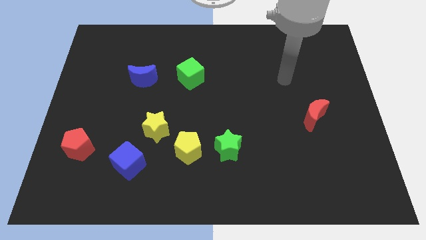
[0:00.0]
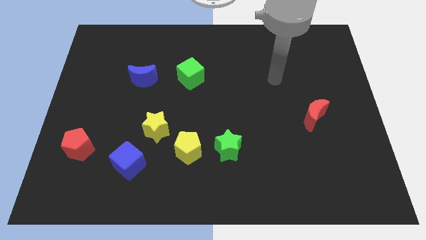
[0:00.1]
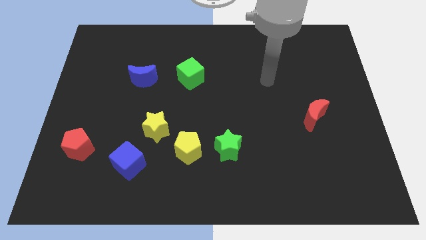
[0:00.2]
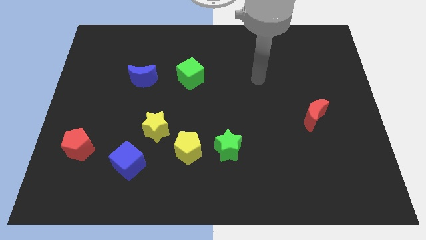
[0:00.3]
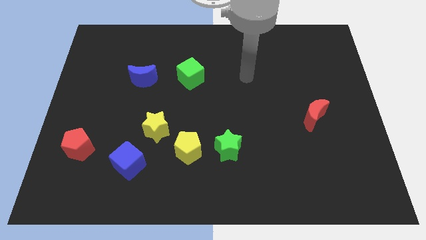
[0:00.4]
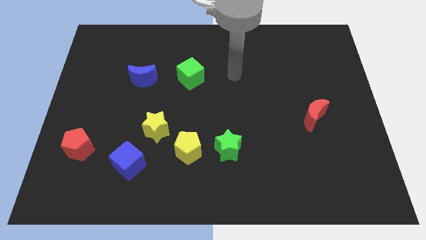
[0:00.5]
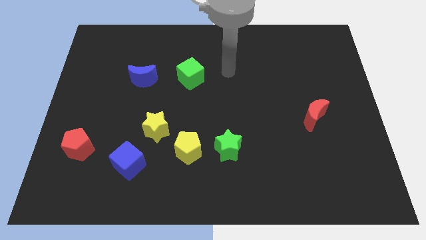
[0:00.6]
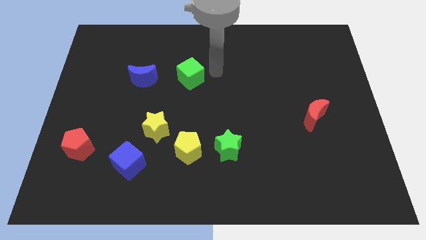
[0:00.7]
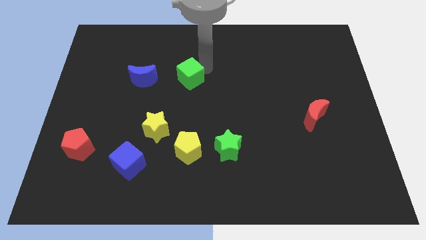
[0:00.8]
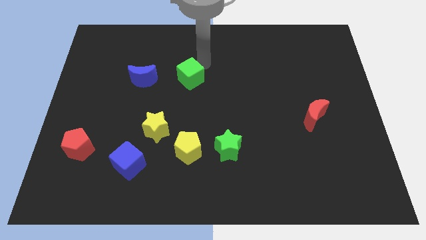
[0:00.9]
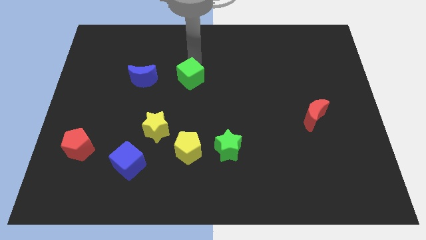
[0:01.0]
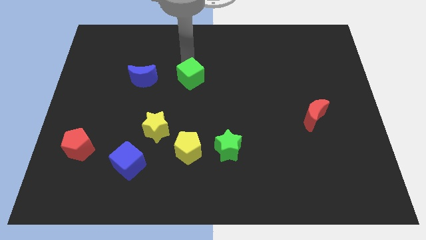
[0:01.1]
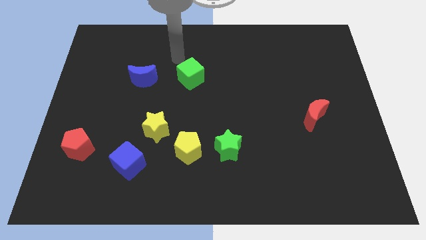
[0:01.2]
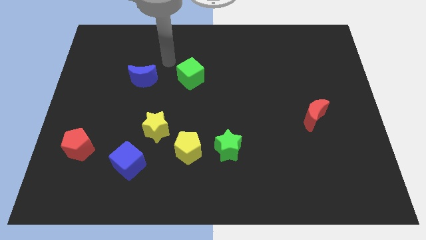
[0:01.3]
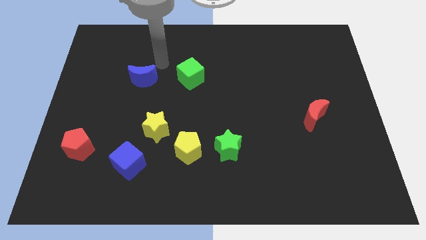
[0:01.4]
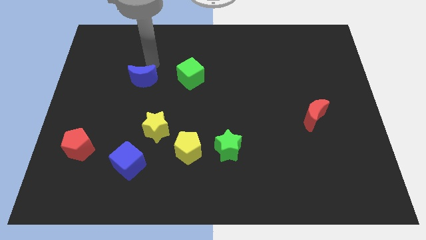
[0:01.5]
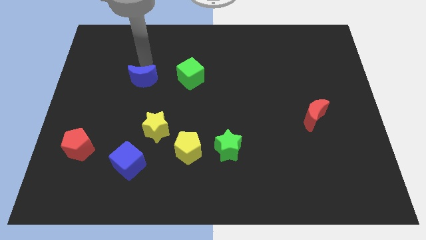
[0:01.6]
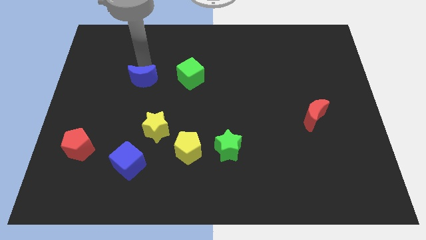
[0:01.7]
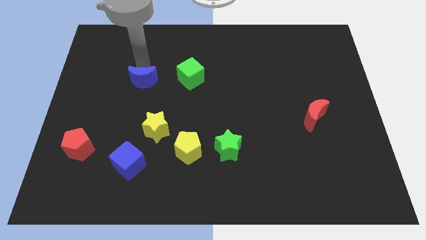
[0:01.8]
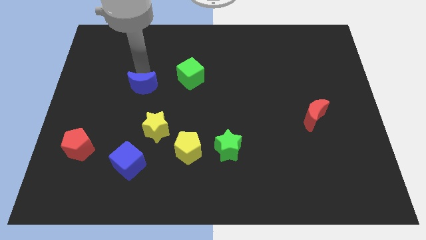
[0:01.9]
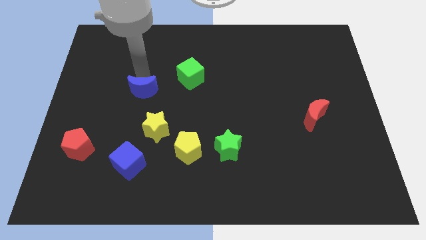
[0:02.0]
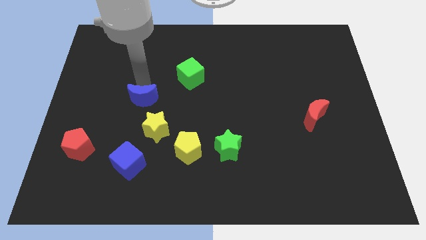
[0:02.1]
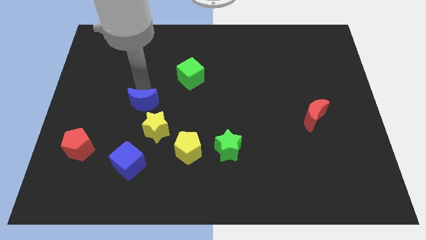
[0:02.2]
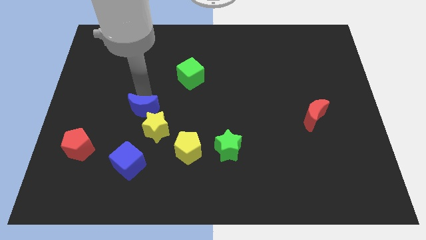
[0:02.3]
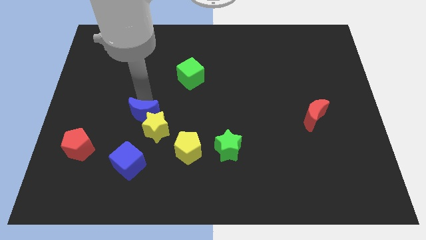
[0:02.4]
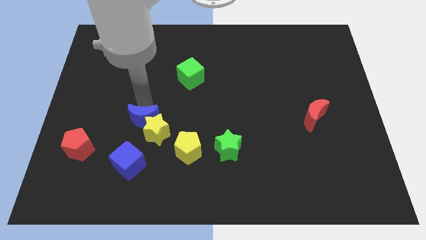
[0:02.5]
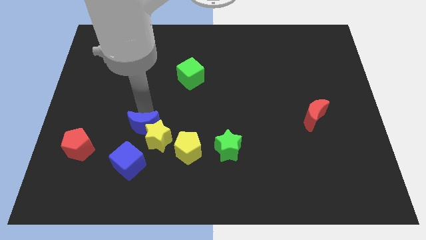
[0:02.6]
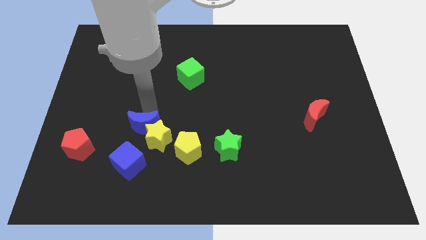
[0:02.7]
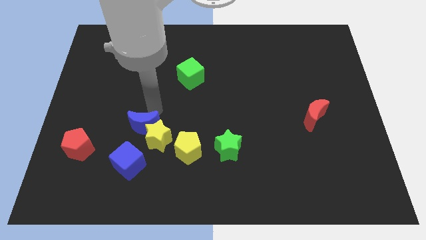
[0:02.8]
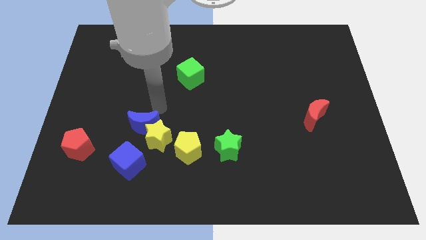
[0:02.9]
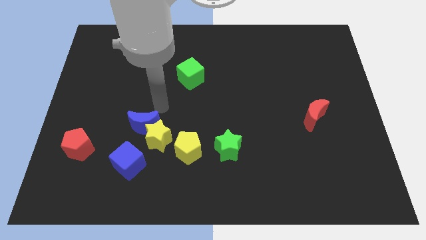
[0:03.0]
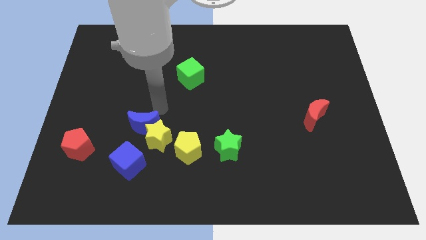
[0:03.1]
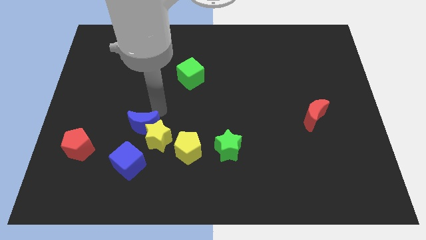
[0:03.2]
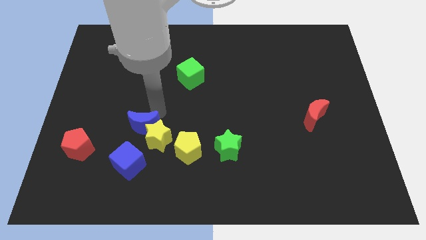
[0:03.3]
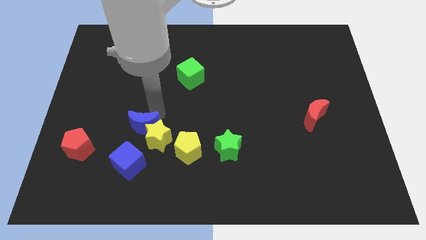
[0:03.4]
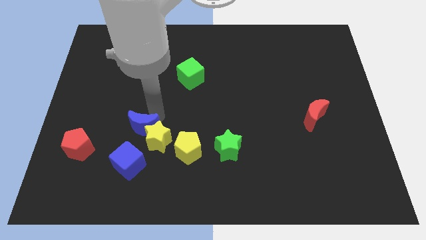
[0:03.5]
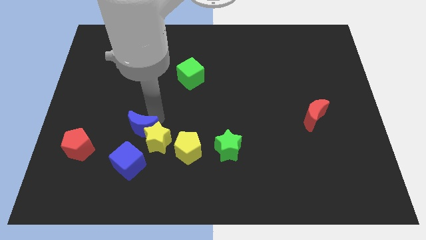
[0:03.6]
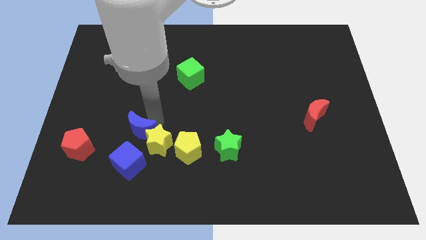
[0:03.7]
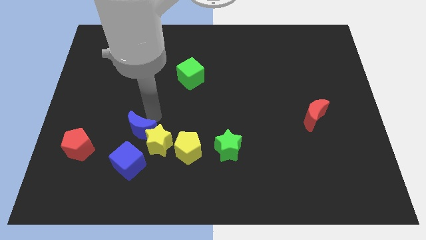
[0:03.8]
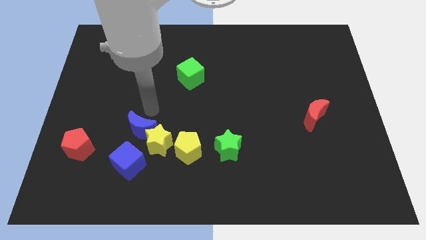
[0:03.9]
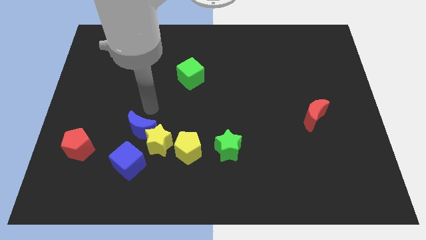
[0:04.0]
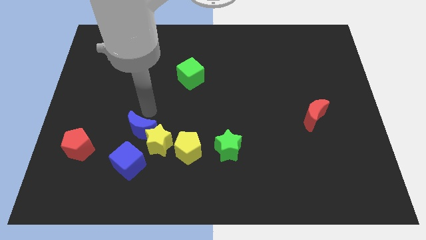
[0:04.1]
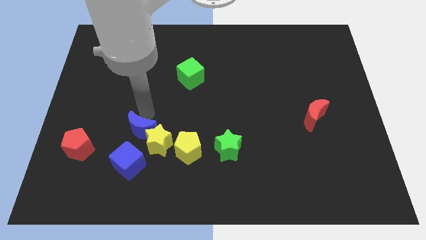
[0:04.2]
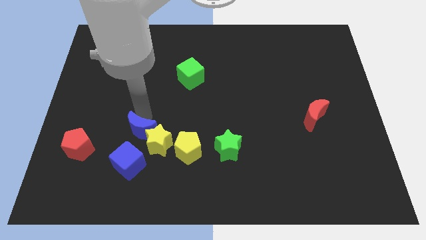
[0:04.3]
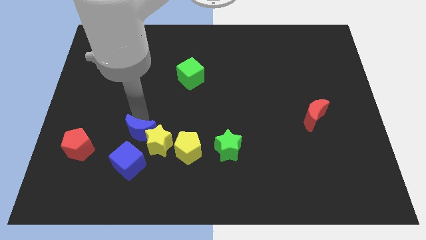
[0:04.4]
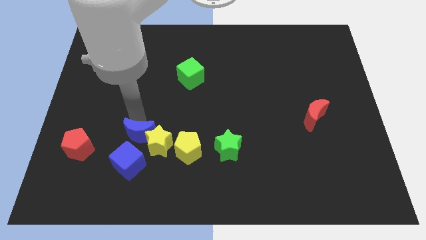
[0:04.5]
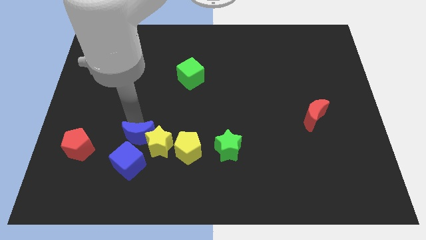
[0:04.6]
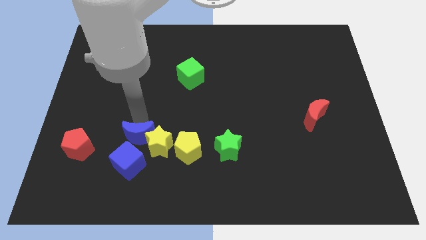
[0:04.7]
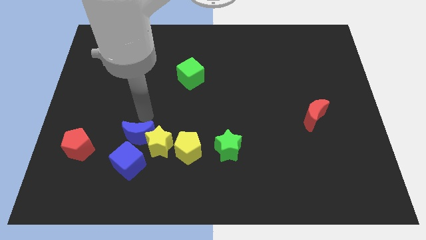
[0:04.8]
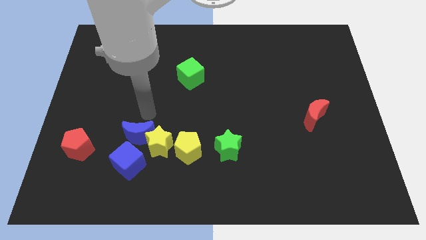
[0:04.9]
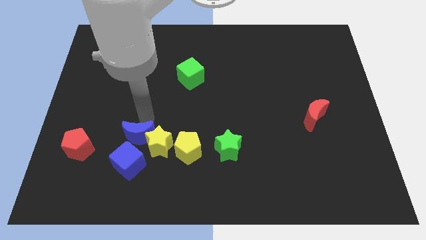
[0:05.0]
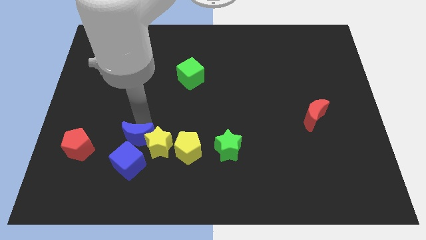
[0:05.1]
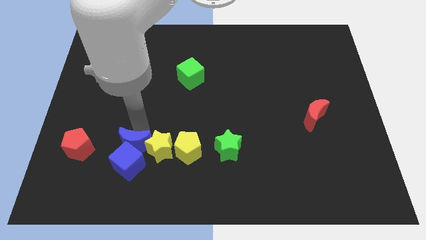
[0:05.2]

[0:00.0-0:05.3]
slide the blue moon close to the blue cube

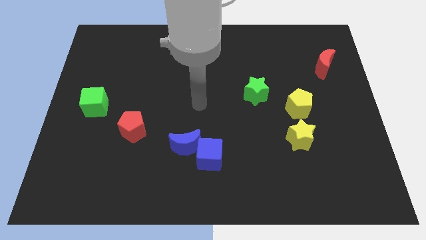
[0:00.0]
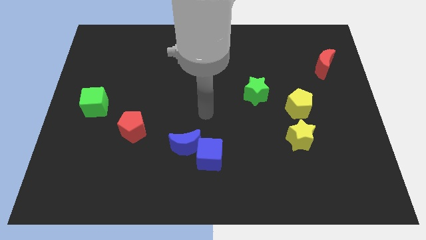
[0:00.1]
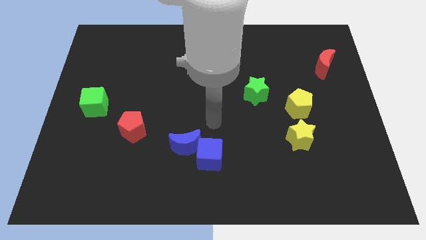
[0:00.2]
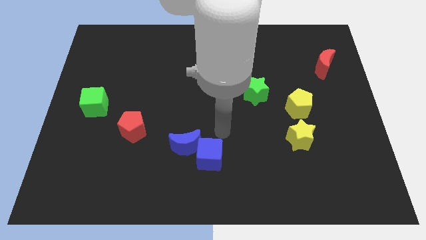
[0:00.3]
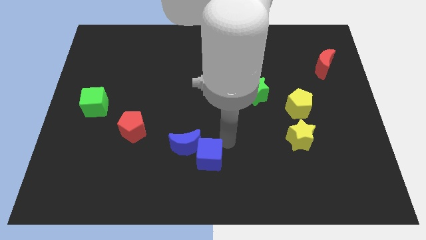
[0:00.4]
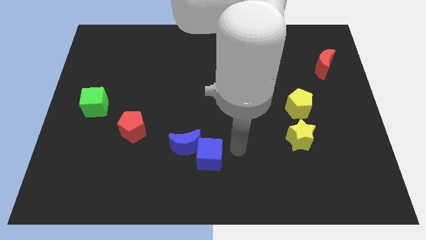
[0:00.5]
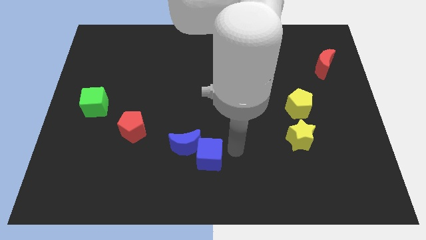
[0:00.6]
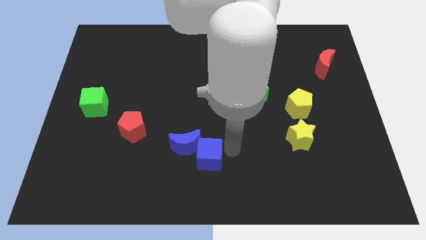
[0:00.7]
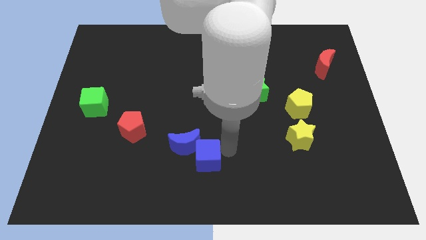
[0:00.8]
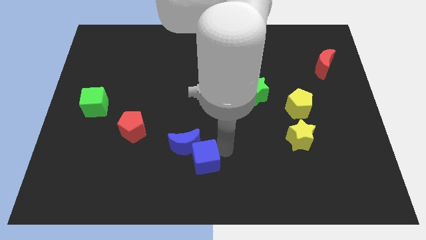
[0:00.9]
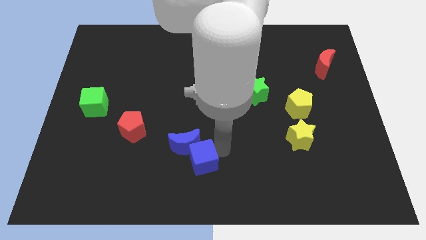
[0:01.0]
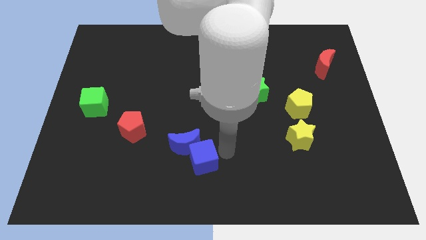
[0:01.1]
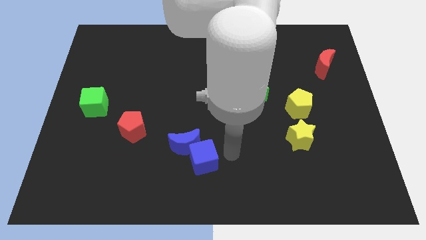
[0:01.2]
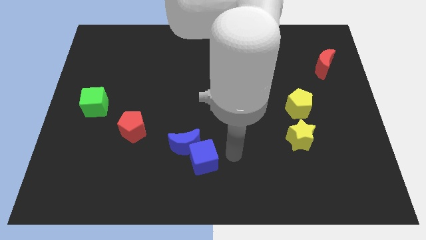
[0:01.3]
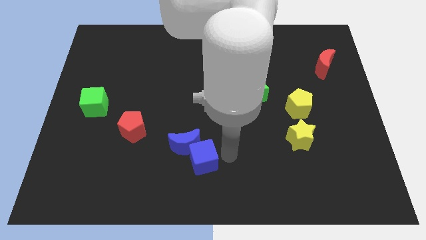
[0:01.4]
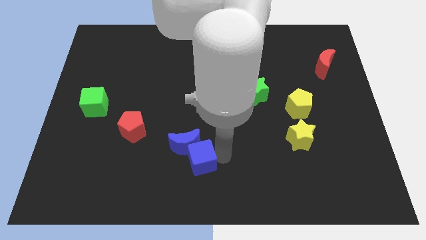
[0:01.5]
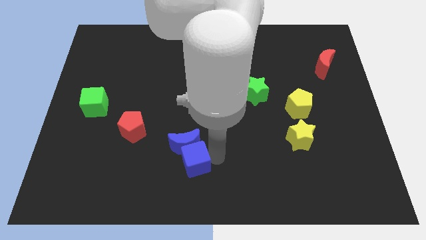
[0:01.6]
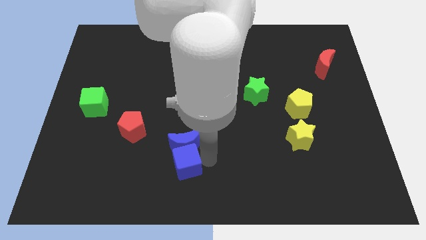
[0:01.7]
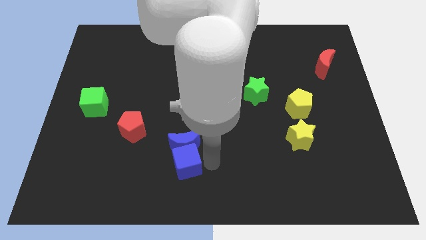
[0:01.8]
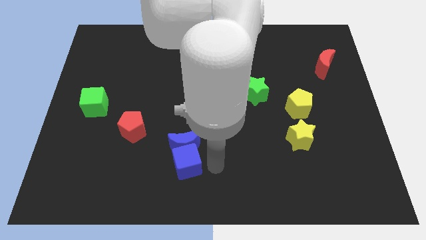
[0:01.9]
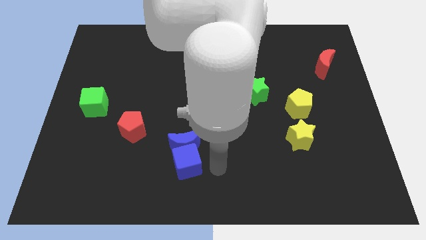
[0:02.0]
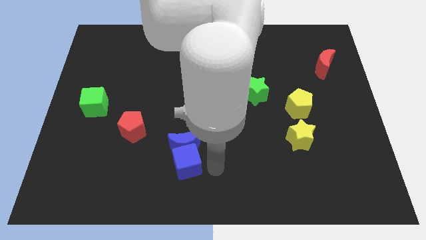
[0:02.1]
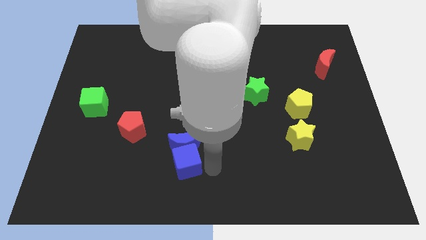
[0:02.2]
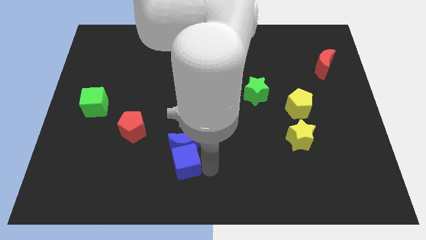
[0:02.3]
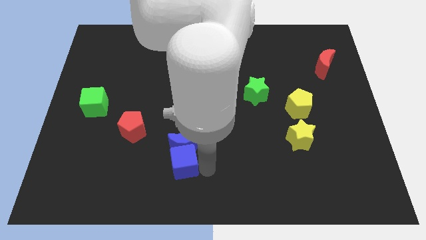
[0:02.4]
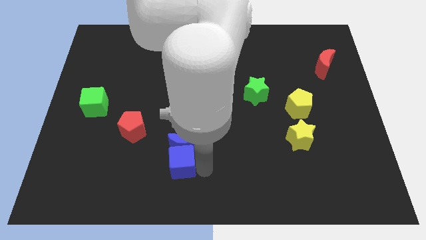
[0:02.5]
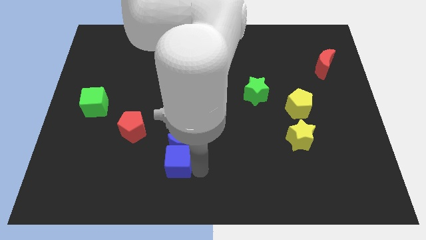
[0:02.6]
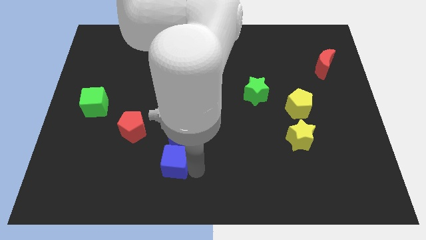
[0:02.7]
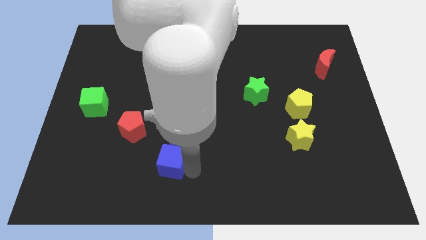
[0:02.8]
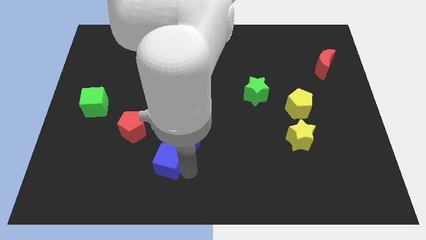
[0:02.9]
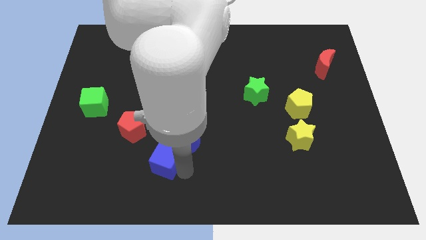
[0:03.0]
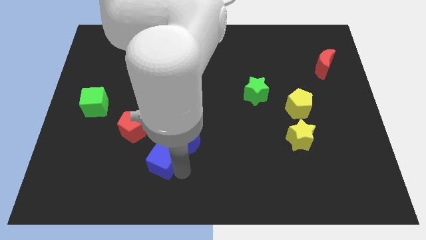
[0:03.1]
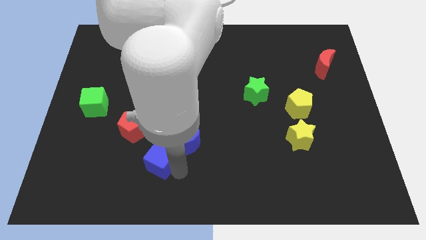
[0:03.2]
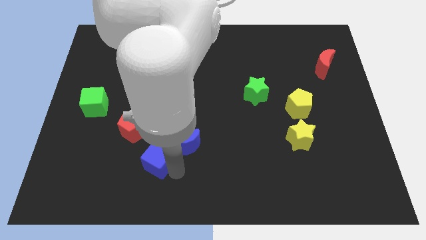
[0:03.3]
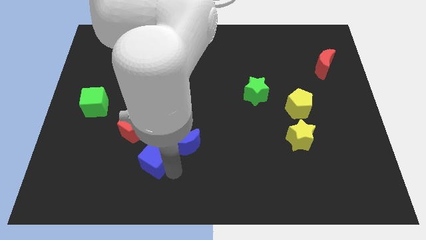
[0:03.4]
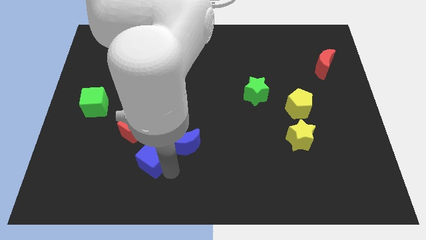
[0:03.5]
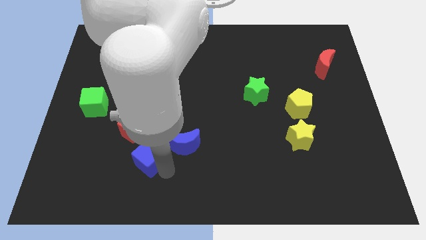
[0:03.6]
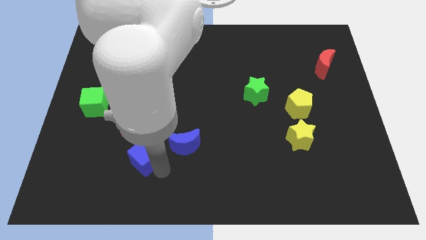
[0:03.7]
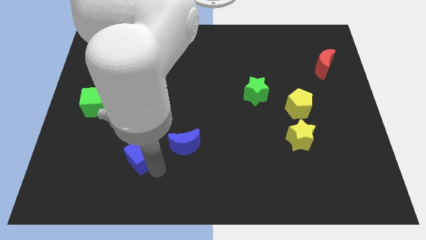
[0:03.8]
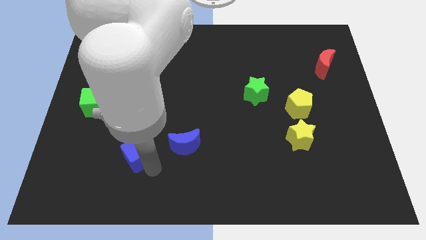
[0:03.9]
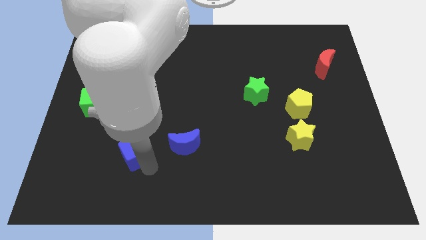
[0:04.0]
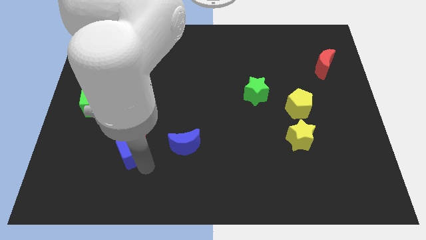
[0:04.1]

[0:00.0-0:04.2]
push the blue cube close to the red pentagon
